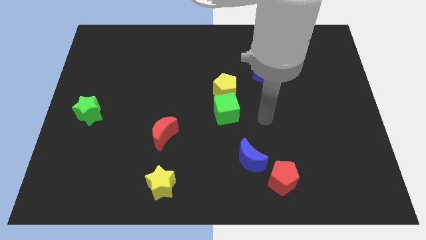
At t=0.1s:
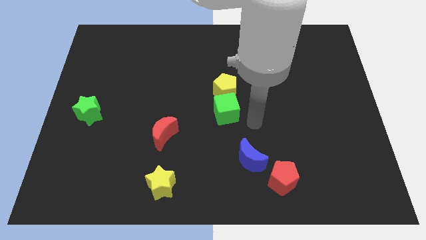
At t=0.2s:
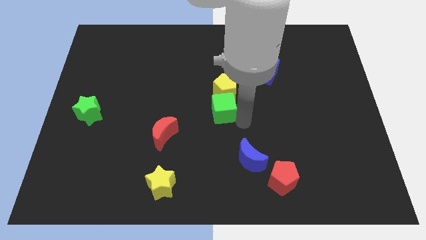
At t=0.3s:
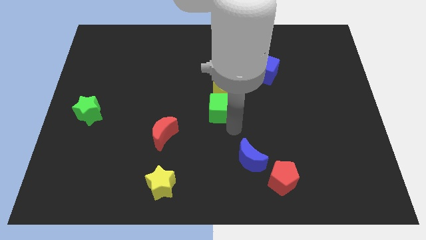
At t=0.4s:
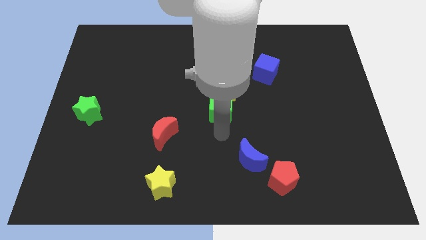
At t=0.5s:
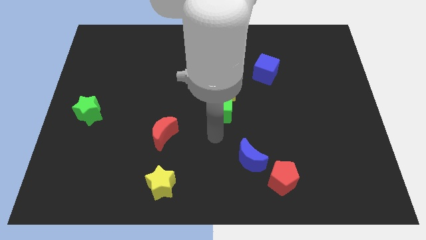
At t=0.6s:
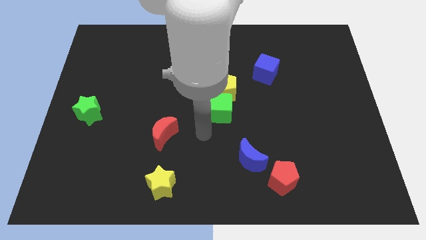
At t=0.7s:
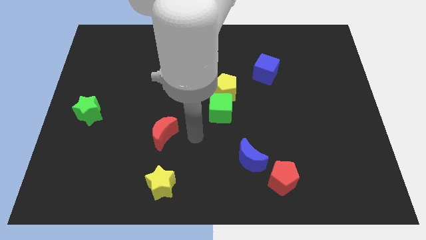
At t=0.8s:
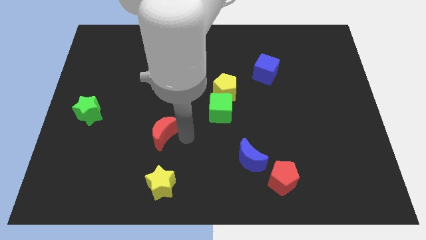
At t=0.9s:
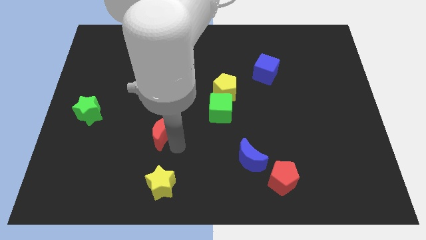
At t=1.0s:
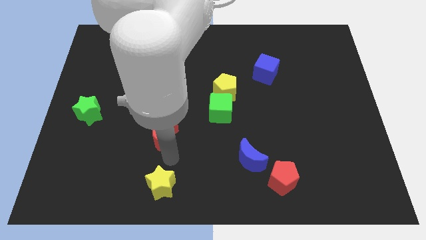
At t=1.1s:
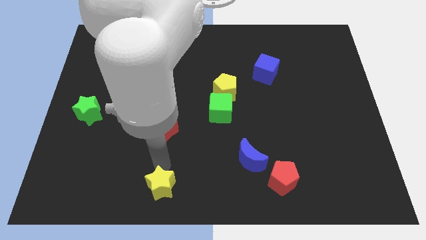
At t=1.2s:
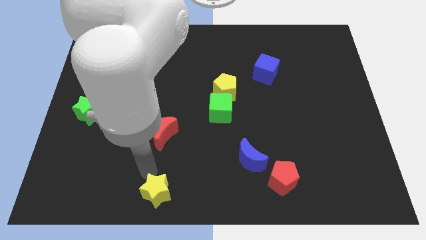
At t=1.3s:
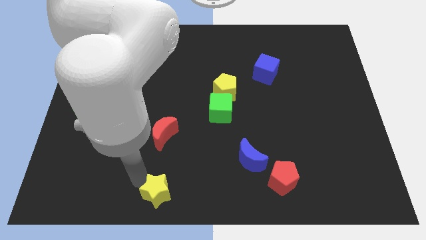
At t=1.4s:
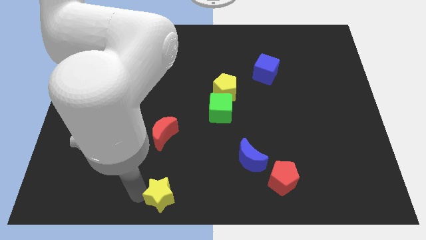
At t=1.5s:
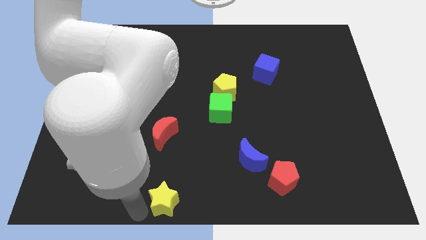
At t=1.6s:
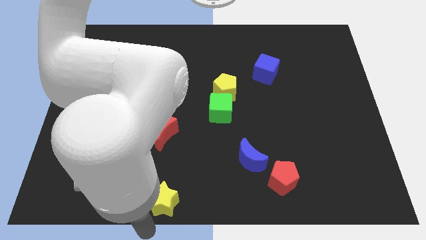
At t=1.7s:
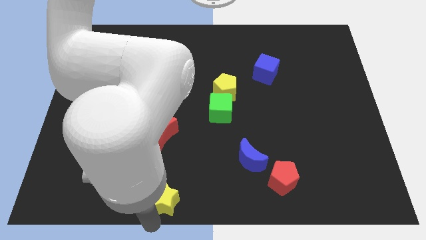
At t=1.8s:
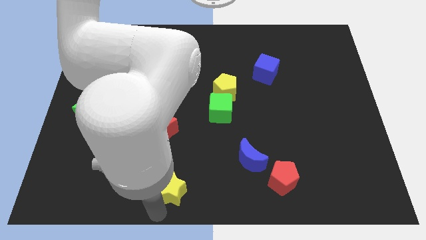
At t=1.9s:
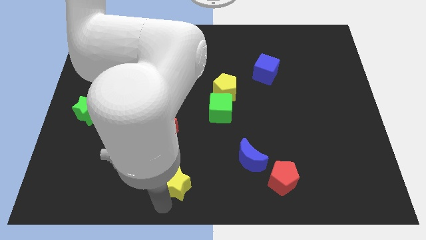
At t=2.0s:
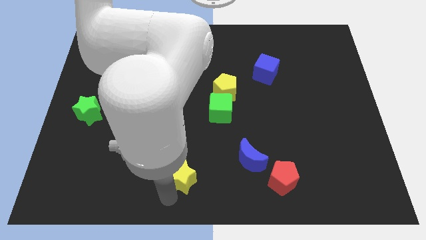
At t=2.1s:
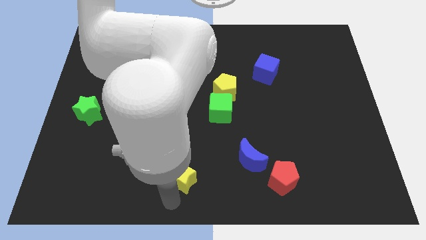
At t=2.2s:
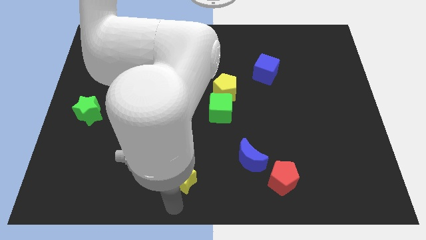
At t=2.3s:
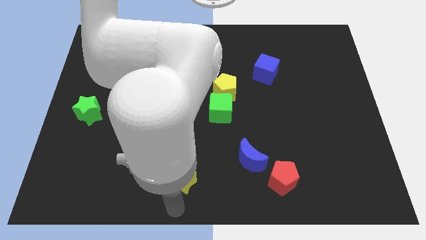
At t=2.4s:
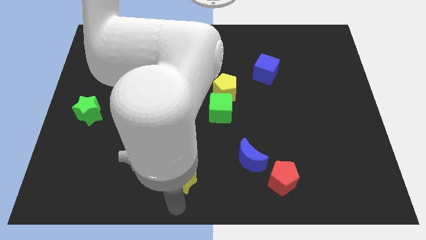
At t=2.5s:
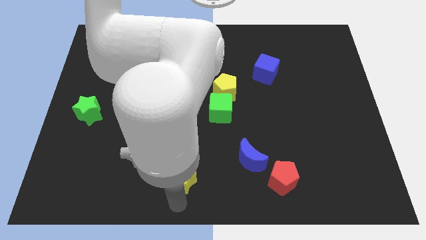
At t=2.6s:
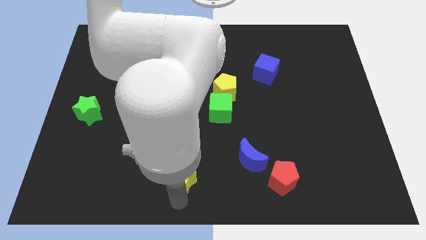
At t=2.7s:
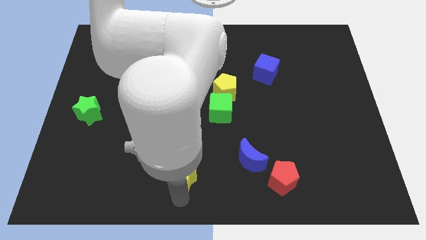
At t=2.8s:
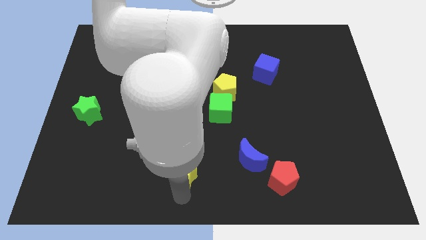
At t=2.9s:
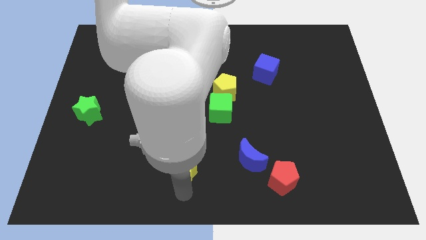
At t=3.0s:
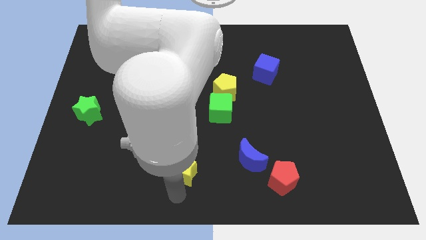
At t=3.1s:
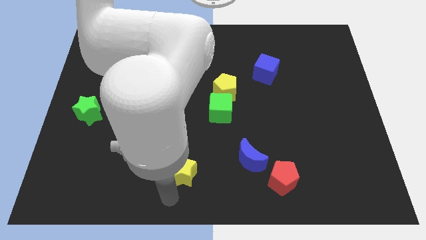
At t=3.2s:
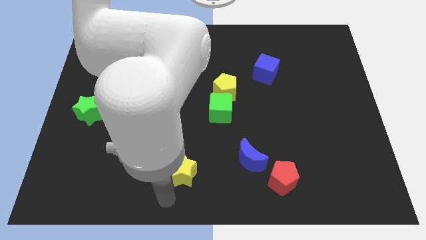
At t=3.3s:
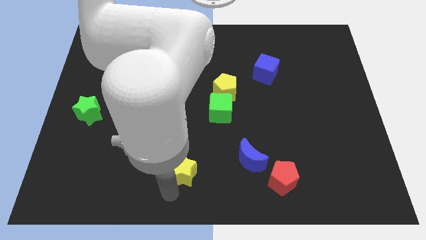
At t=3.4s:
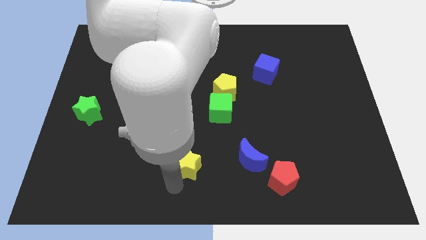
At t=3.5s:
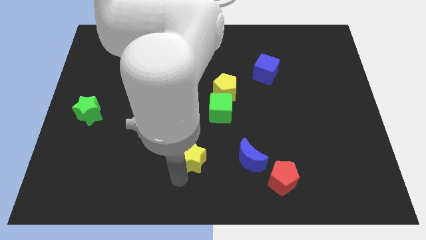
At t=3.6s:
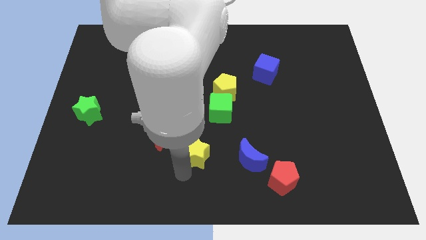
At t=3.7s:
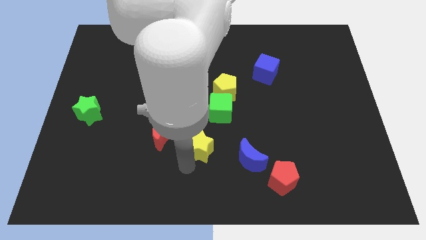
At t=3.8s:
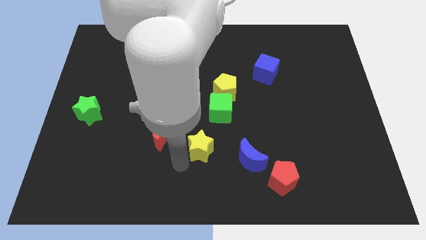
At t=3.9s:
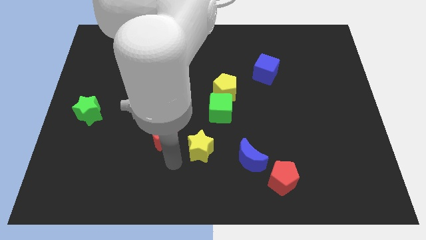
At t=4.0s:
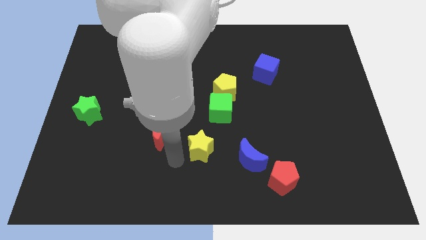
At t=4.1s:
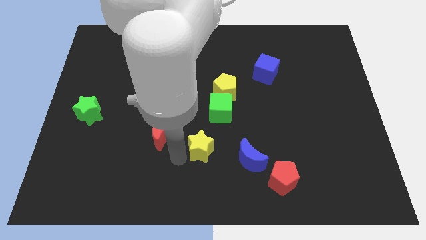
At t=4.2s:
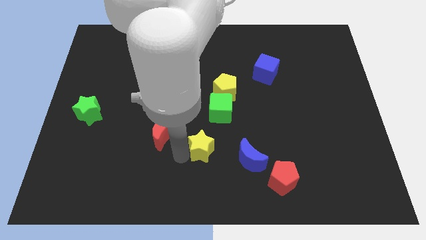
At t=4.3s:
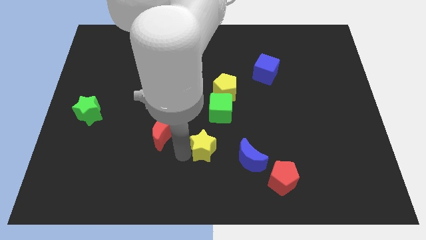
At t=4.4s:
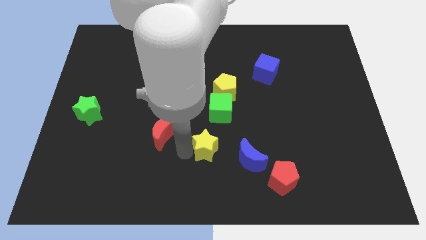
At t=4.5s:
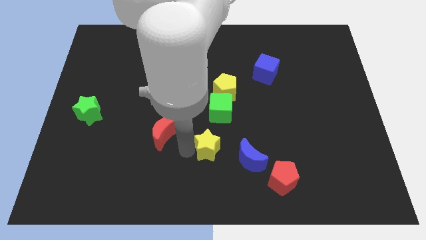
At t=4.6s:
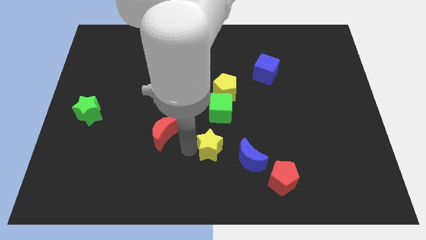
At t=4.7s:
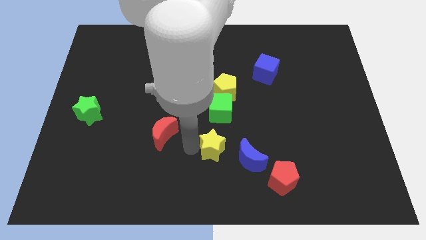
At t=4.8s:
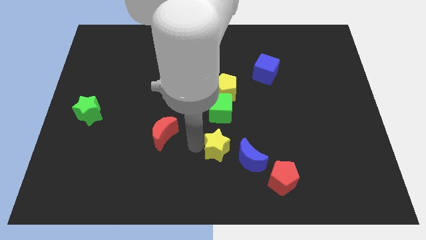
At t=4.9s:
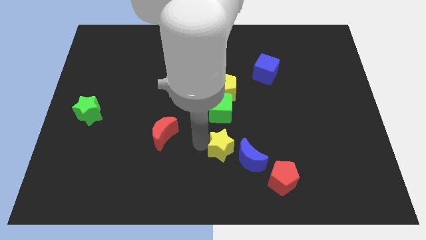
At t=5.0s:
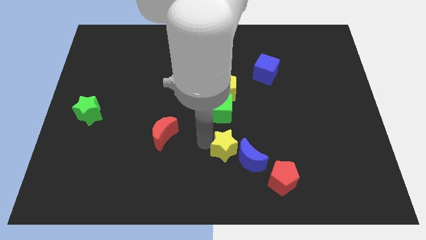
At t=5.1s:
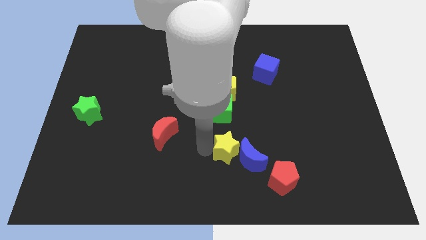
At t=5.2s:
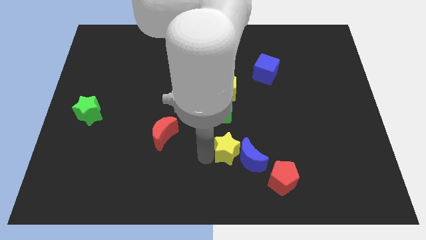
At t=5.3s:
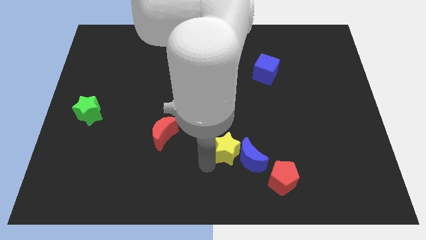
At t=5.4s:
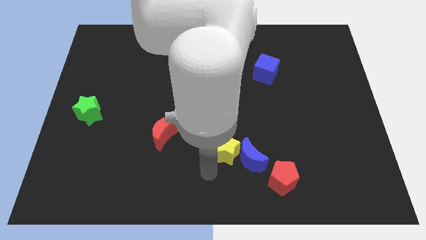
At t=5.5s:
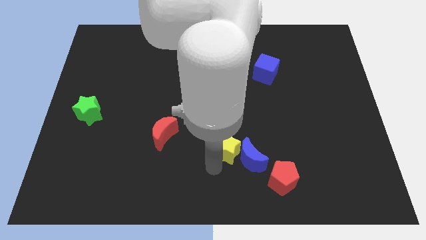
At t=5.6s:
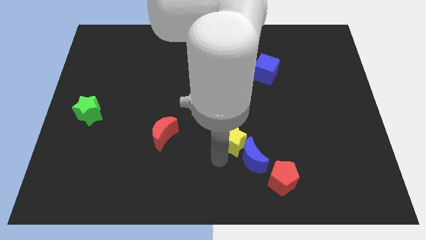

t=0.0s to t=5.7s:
push the yellow star to the top side of the blue moon

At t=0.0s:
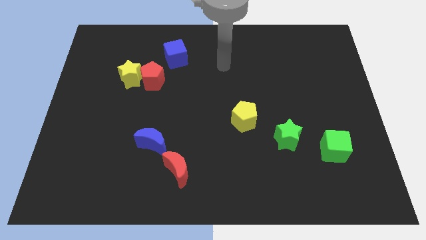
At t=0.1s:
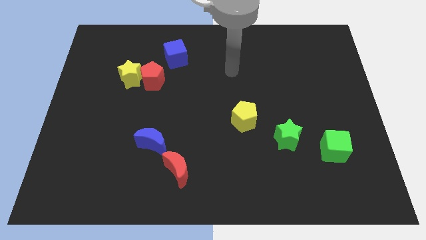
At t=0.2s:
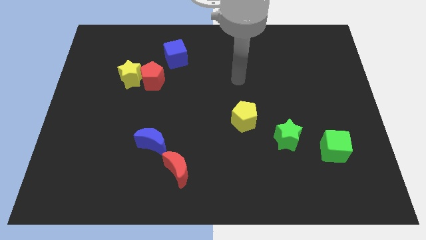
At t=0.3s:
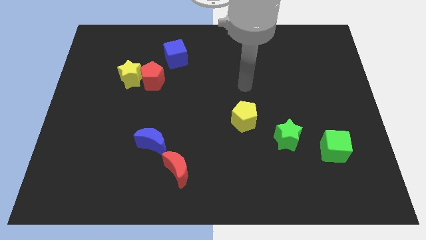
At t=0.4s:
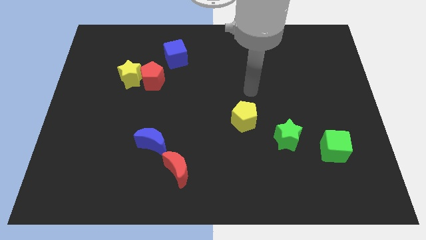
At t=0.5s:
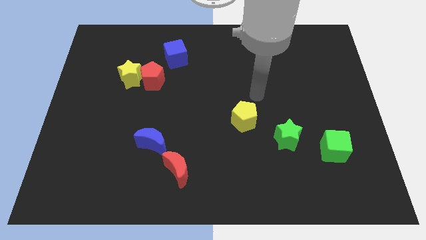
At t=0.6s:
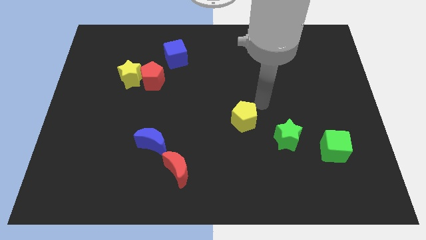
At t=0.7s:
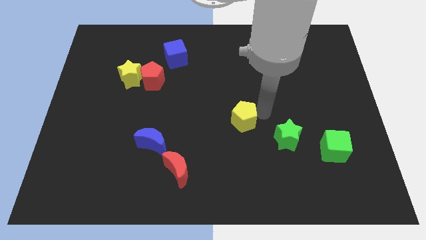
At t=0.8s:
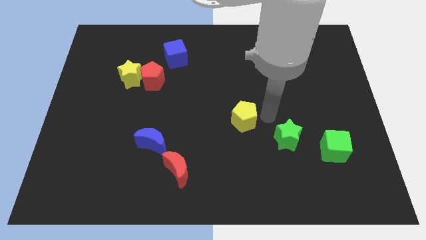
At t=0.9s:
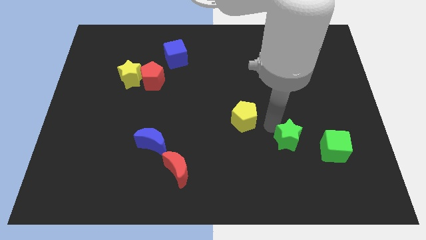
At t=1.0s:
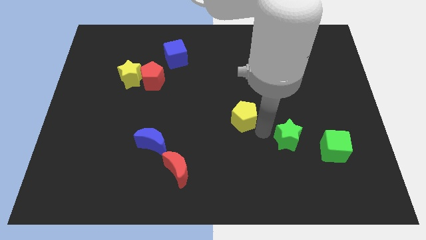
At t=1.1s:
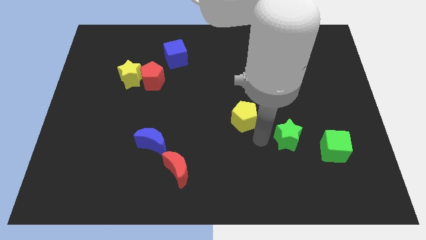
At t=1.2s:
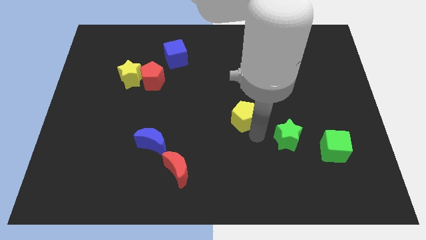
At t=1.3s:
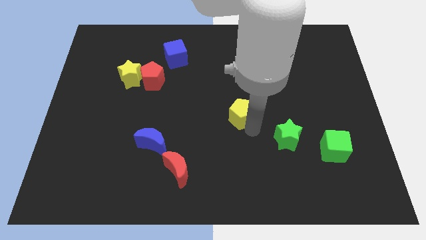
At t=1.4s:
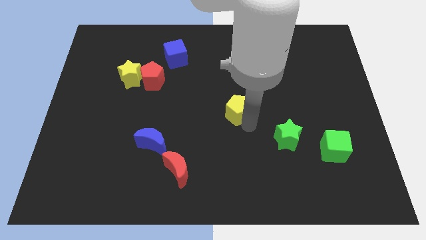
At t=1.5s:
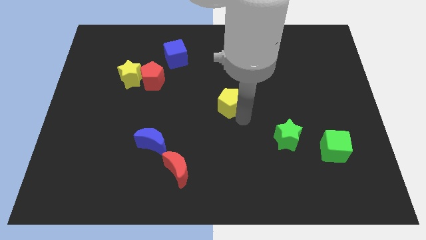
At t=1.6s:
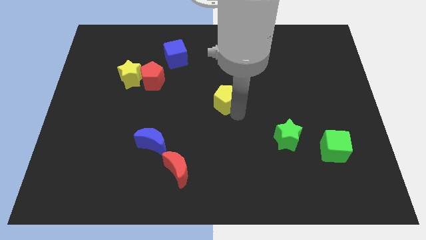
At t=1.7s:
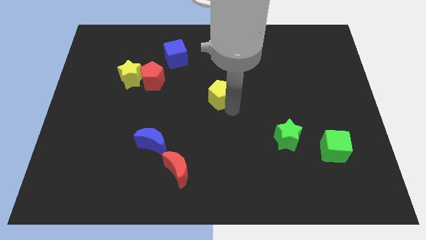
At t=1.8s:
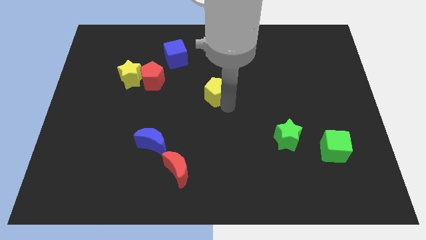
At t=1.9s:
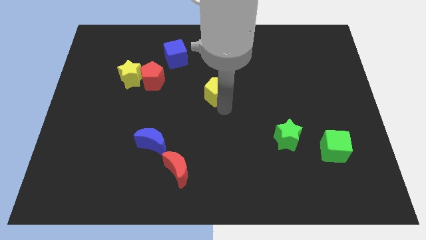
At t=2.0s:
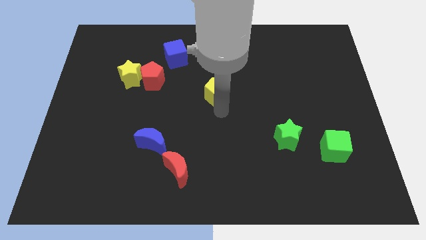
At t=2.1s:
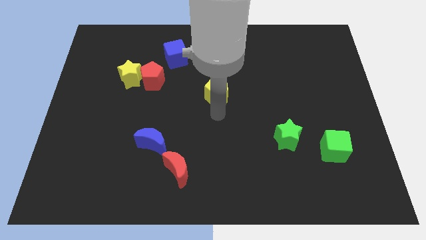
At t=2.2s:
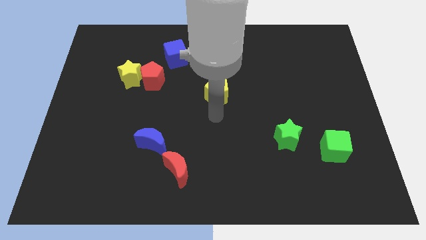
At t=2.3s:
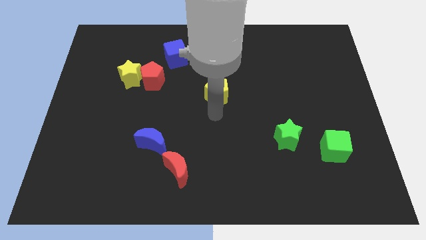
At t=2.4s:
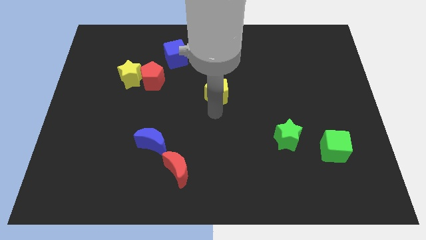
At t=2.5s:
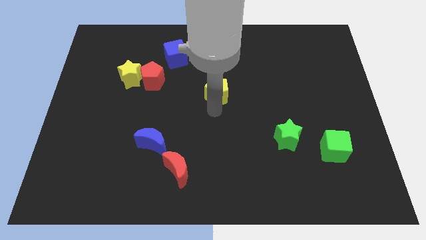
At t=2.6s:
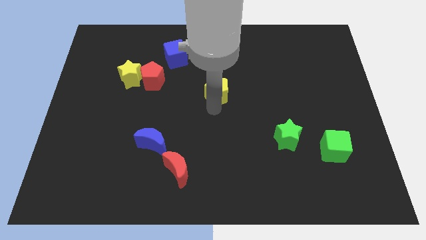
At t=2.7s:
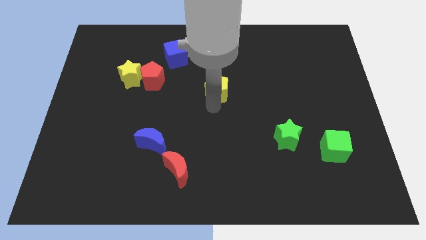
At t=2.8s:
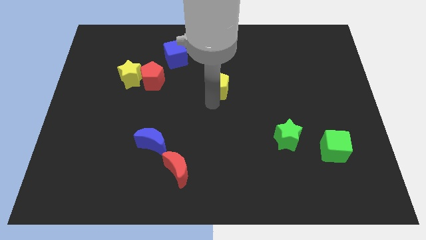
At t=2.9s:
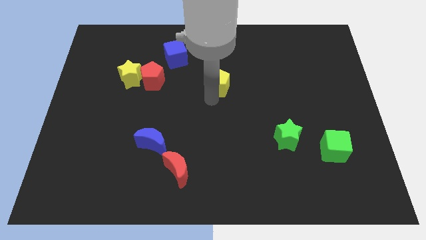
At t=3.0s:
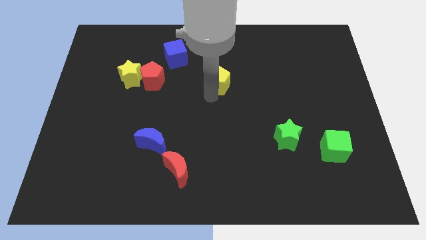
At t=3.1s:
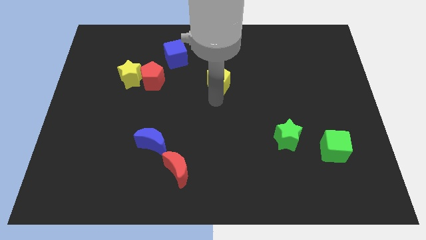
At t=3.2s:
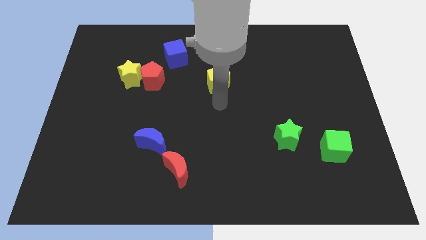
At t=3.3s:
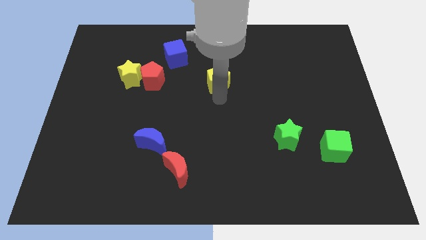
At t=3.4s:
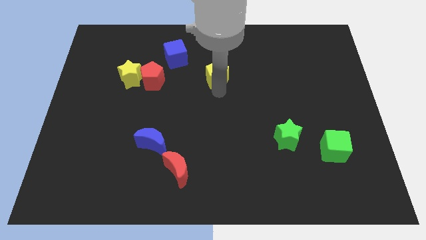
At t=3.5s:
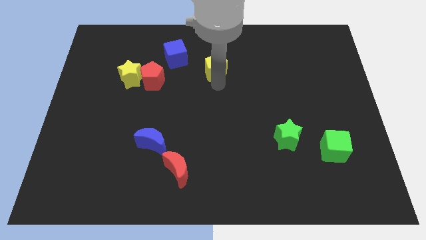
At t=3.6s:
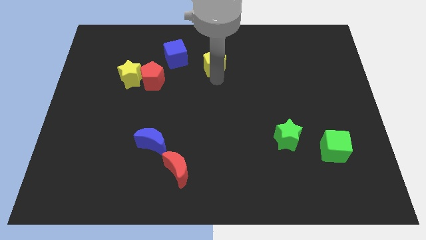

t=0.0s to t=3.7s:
push the yellow pentagon just right of the blue cube
